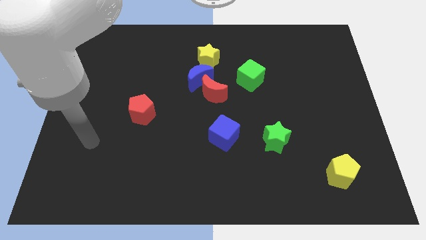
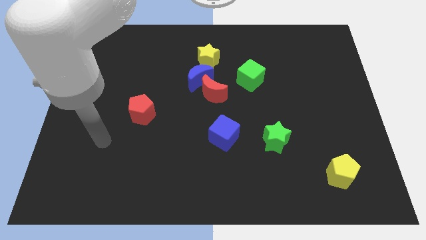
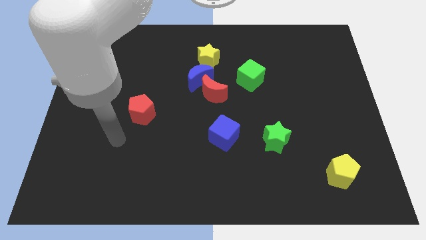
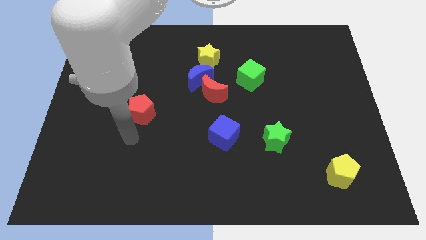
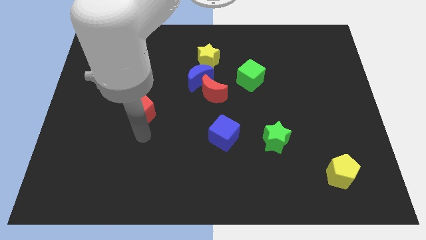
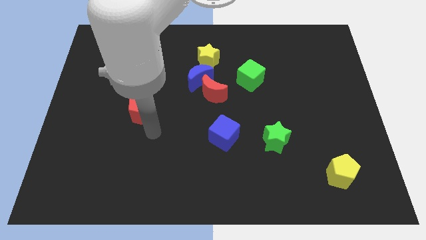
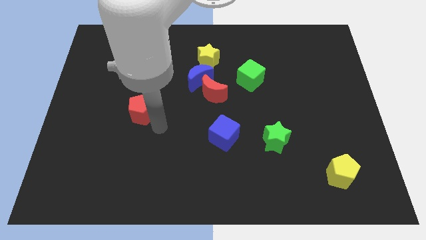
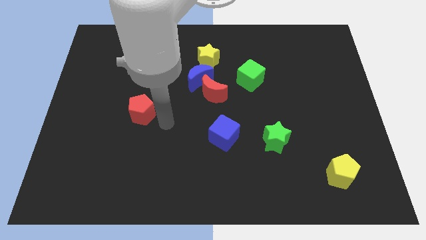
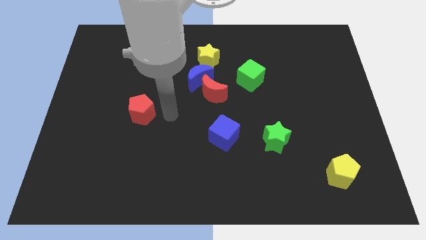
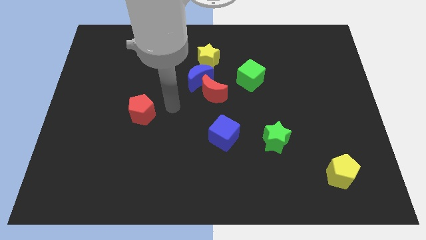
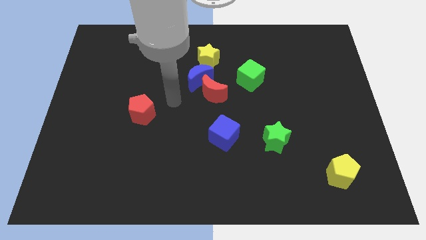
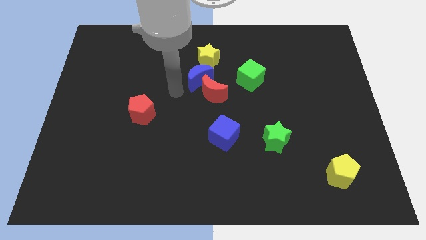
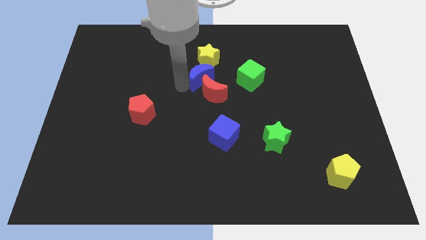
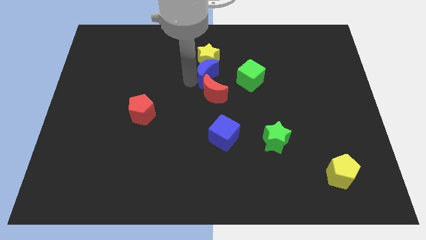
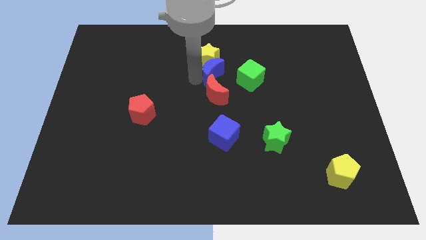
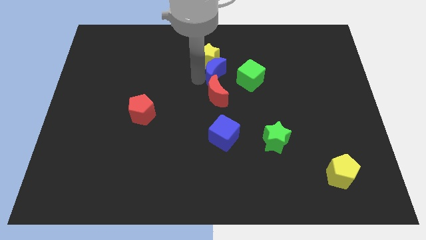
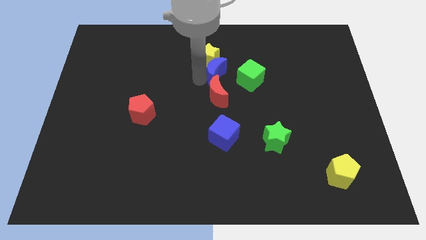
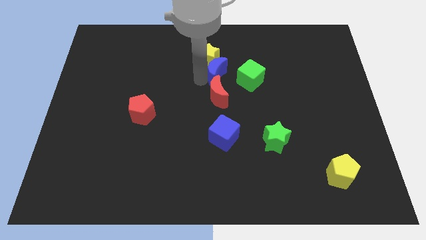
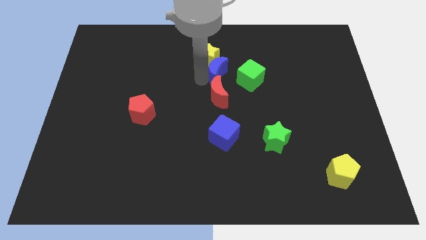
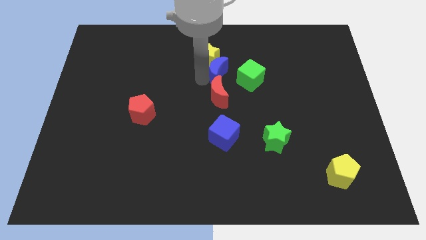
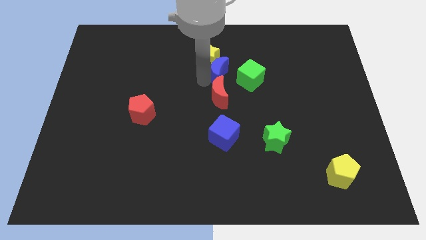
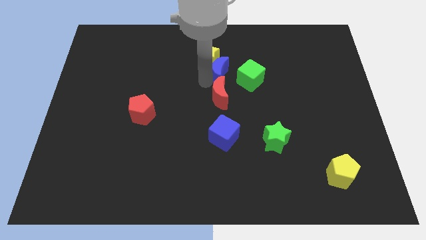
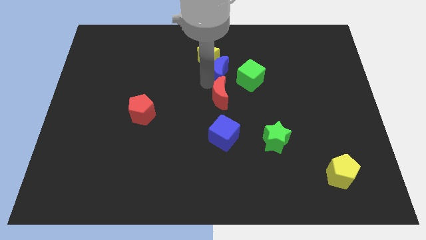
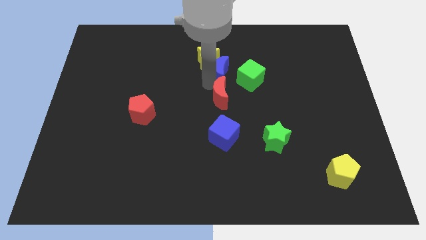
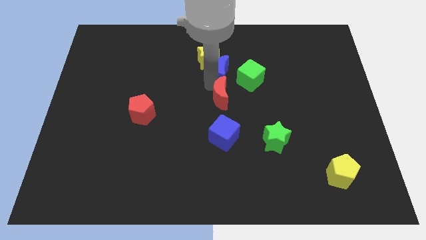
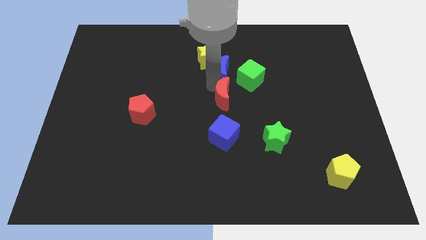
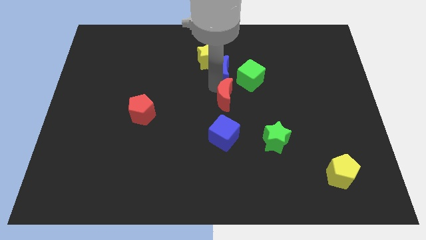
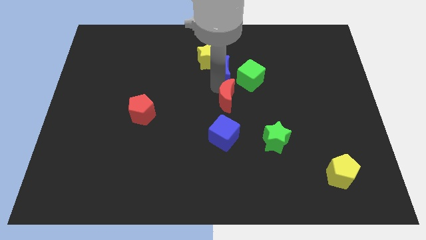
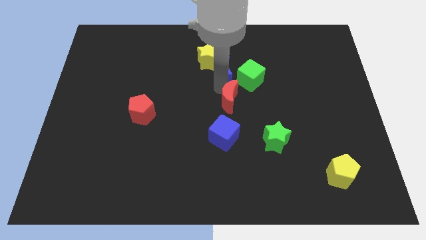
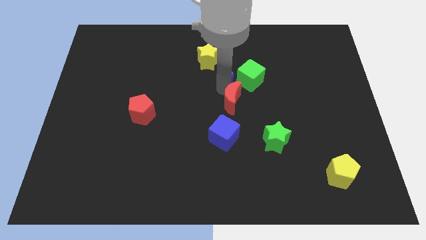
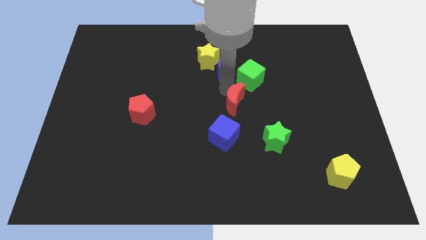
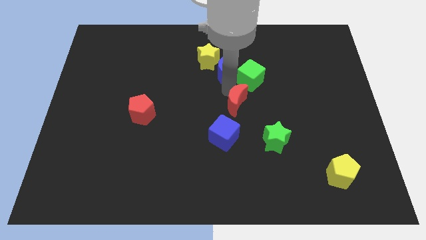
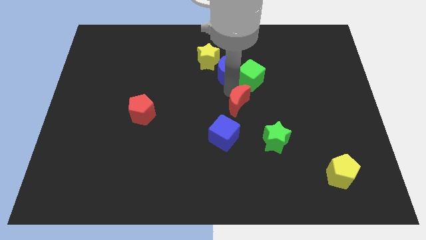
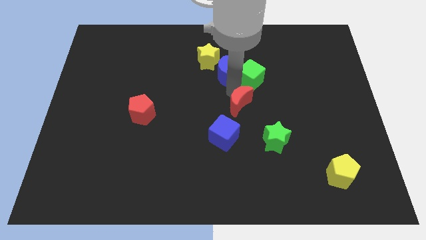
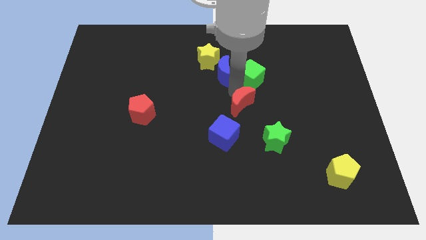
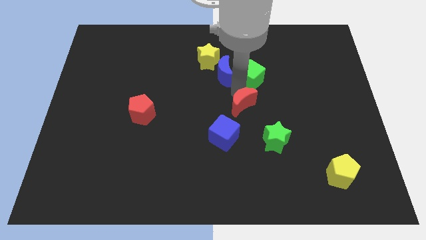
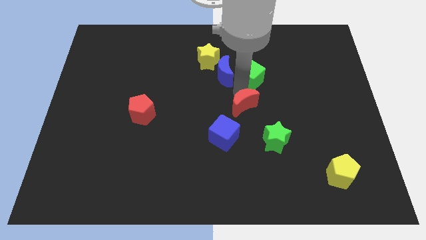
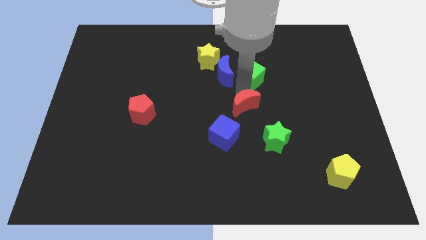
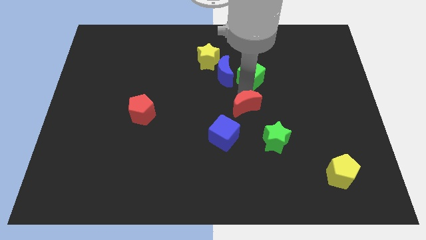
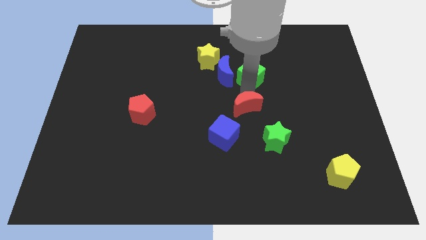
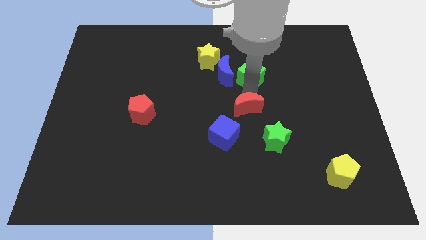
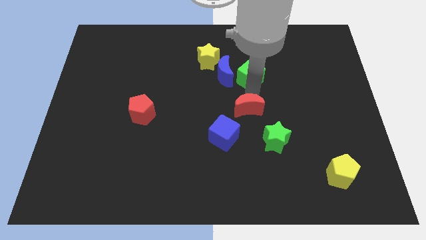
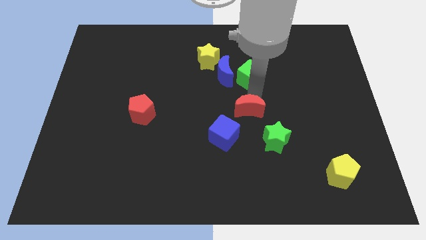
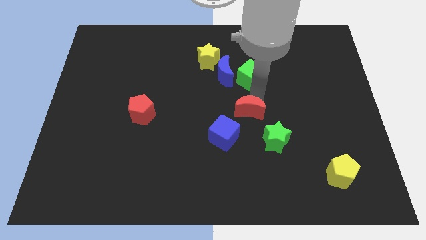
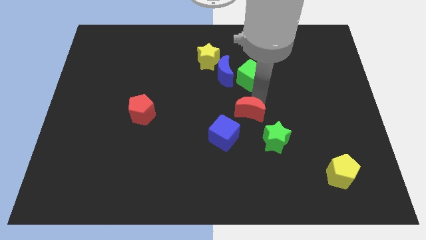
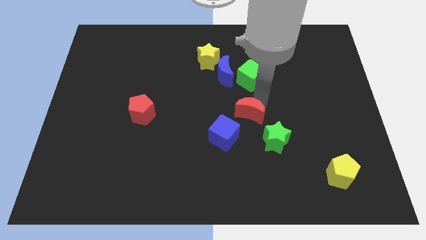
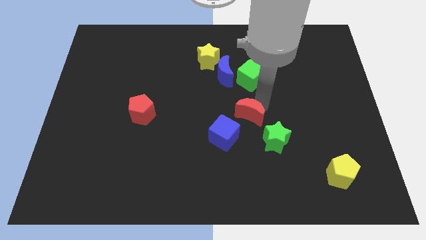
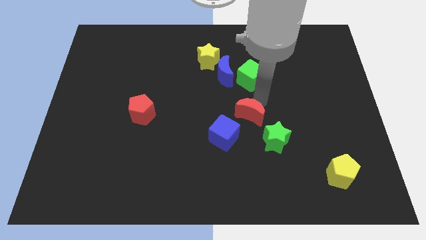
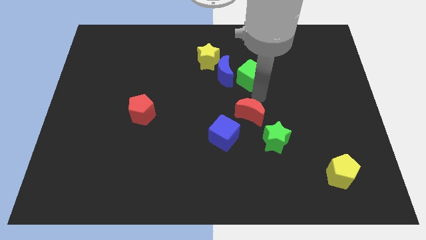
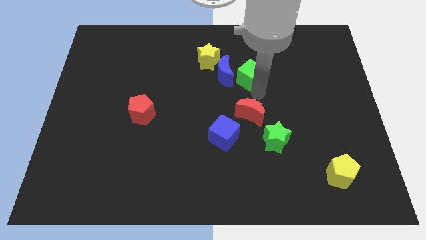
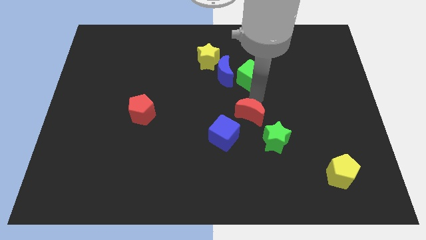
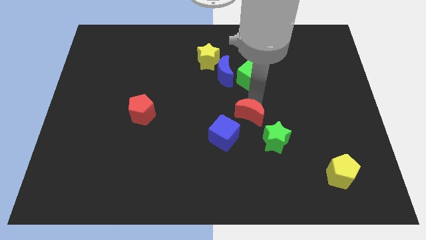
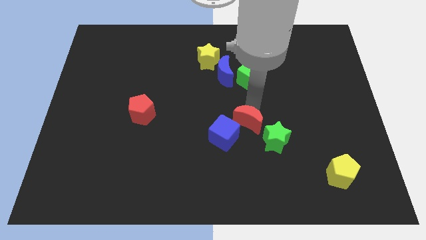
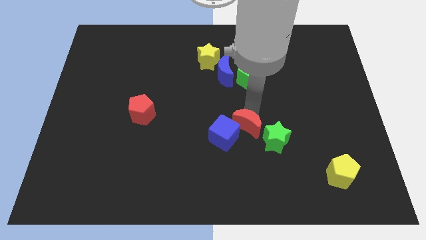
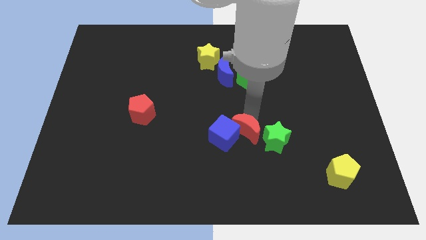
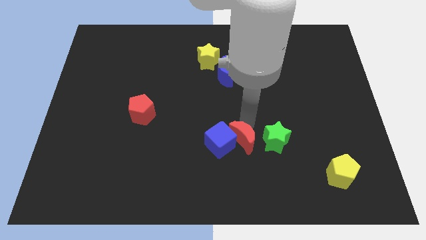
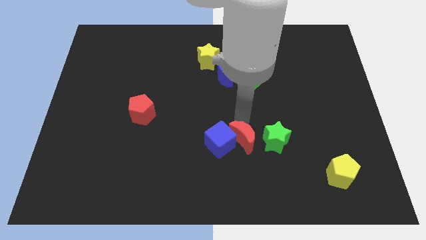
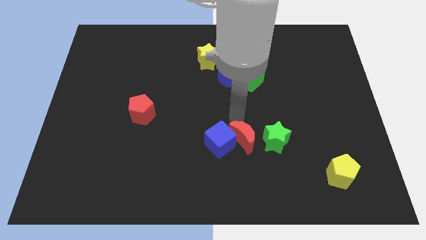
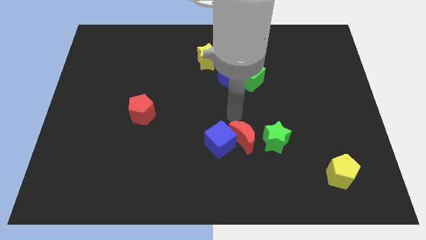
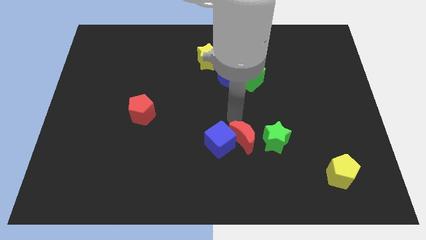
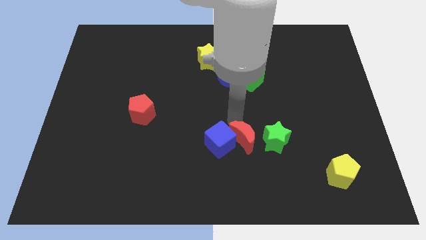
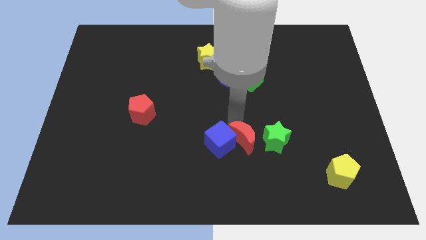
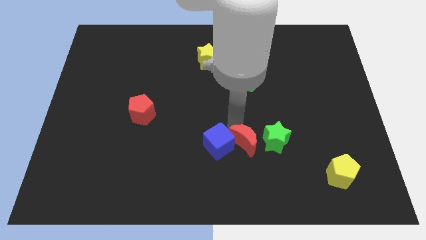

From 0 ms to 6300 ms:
put the red moon diagonally down and to the left of the green star

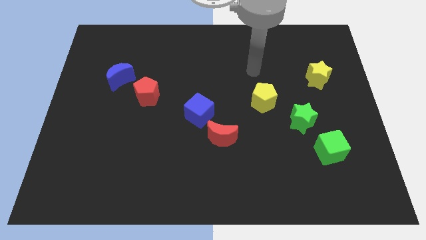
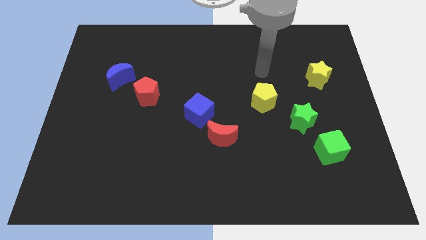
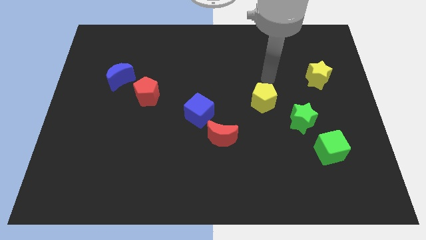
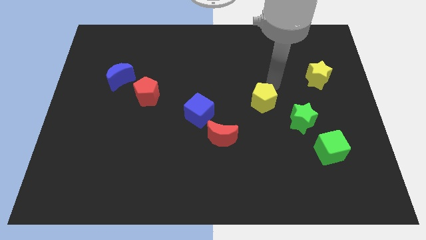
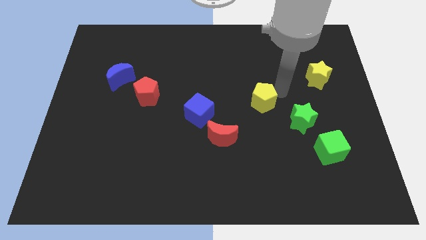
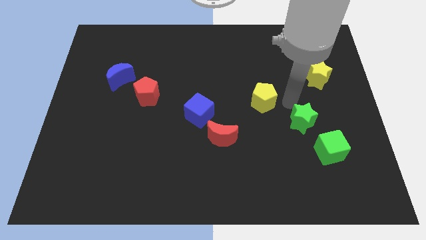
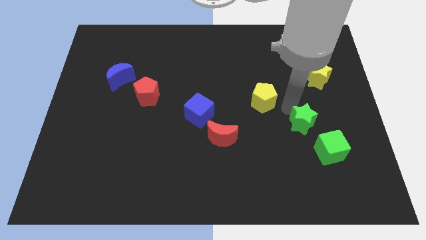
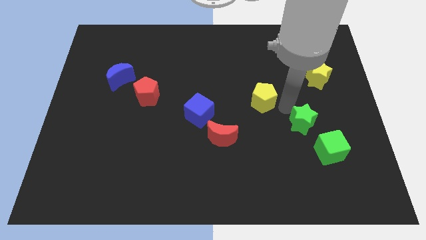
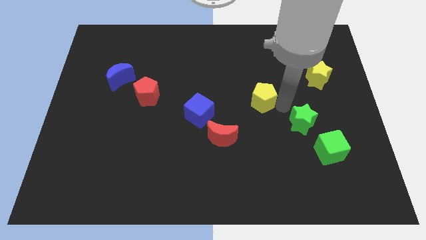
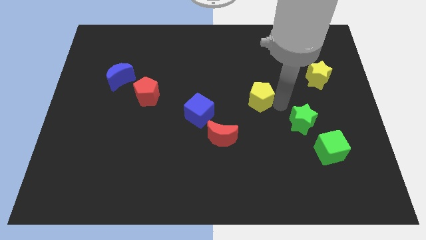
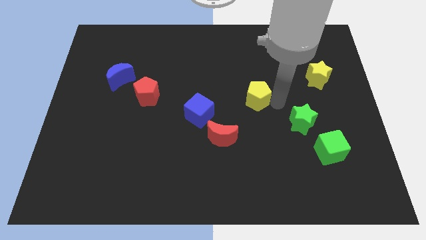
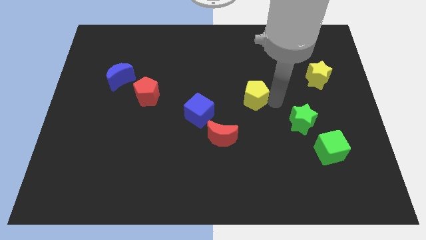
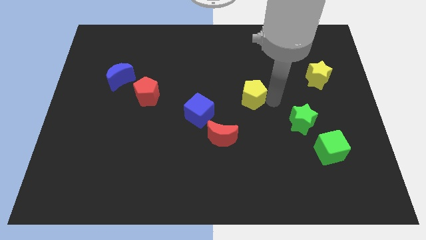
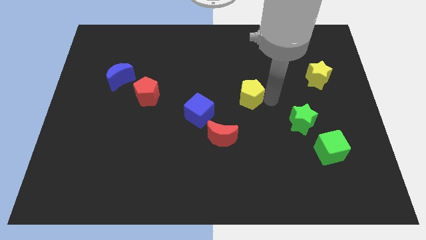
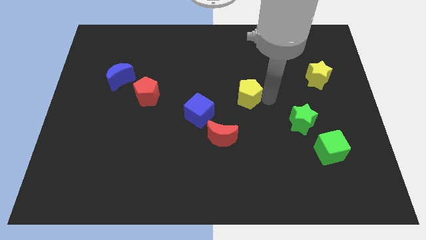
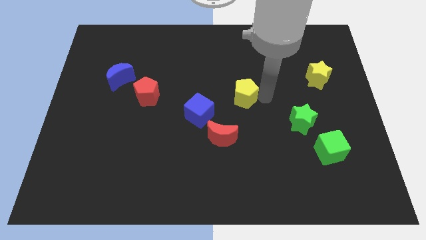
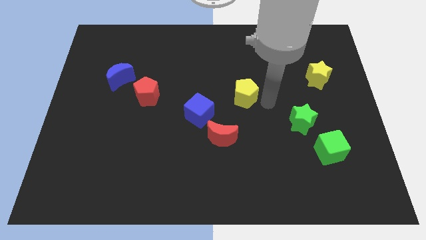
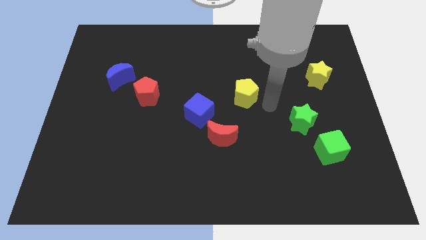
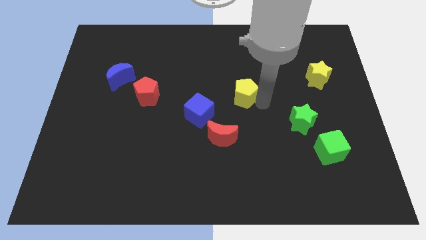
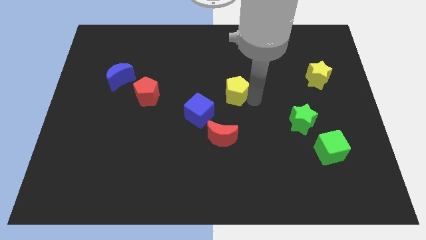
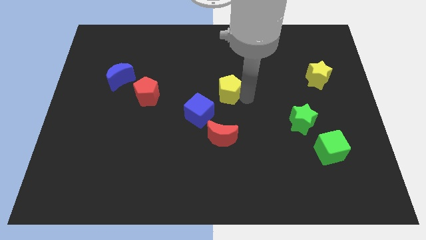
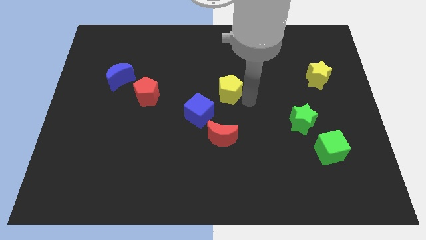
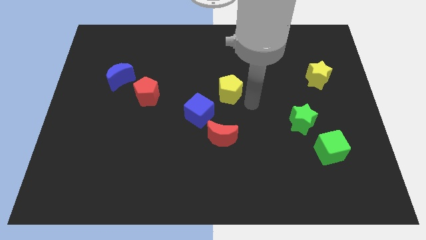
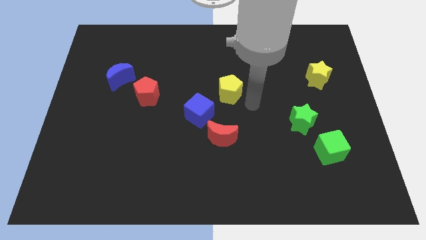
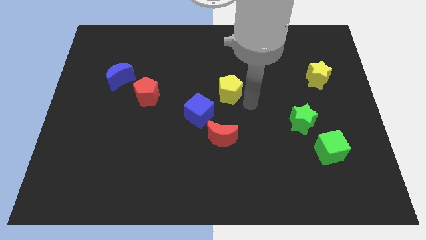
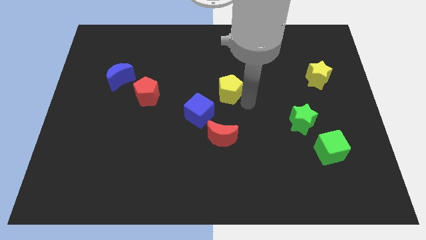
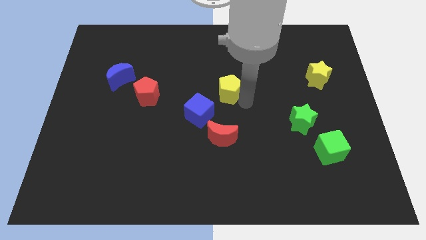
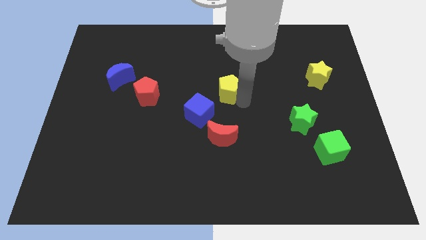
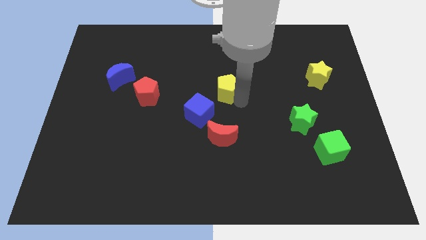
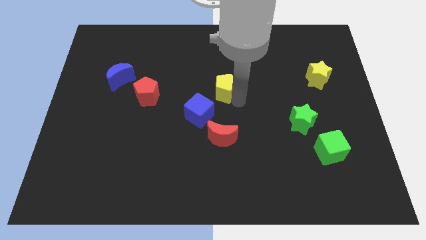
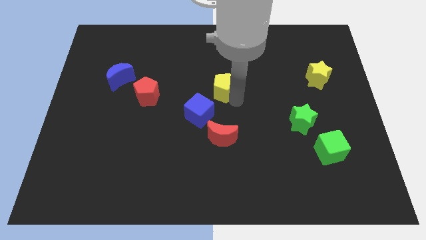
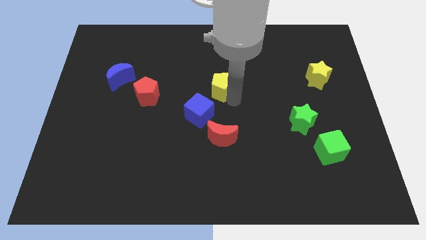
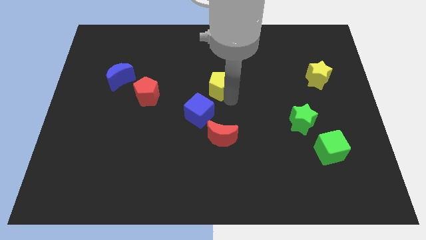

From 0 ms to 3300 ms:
slide the yellow pentagon above the blue cube
